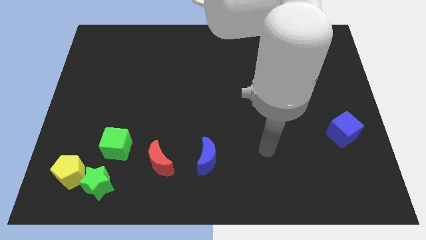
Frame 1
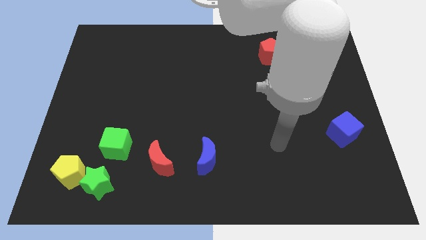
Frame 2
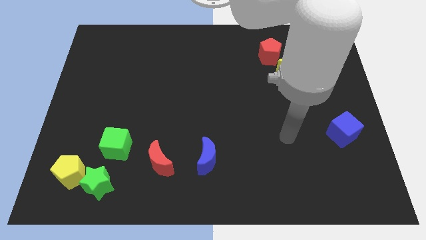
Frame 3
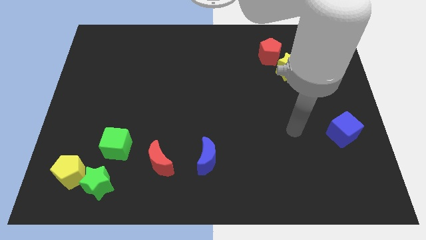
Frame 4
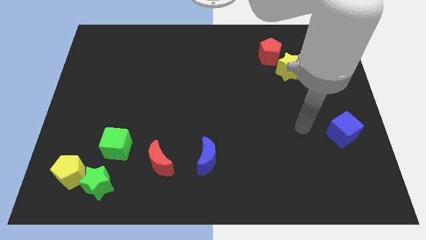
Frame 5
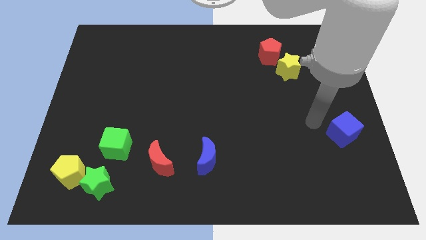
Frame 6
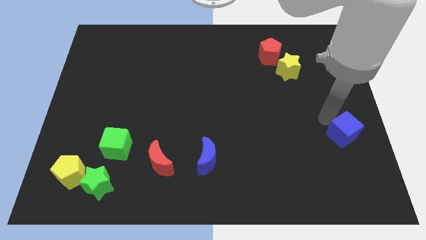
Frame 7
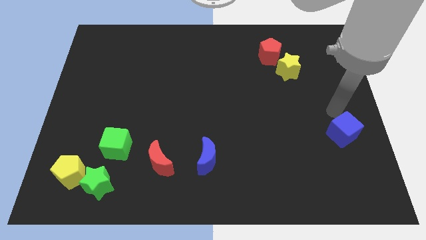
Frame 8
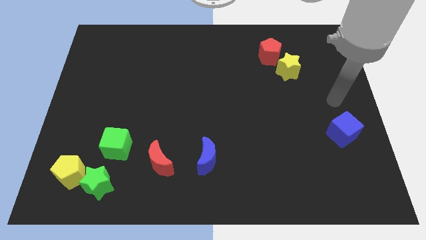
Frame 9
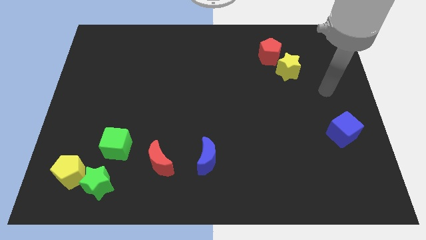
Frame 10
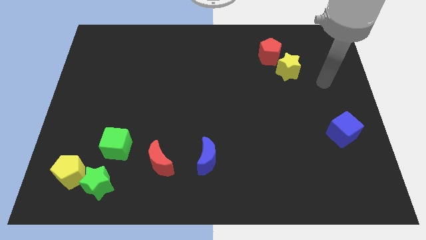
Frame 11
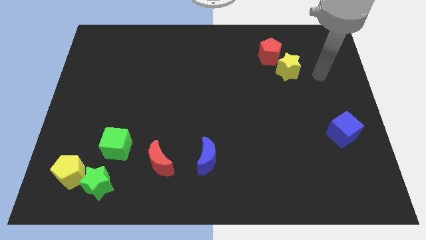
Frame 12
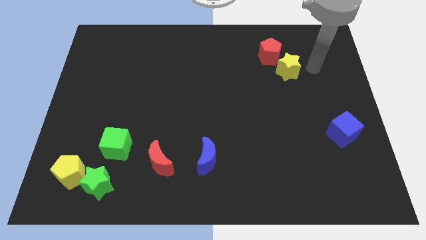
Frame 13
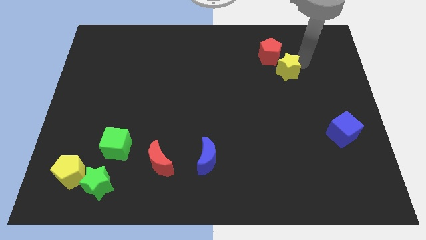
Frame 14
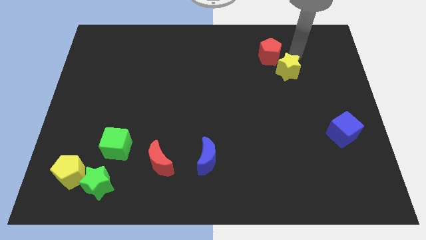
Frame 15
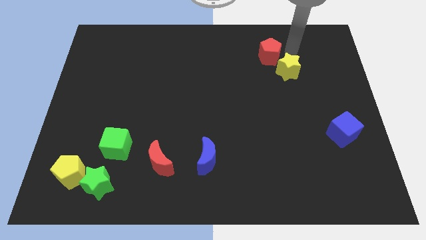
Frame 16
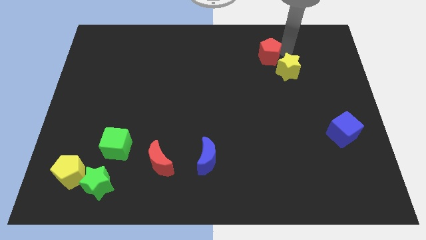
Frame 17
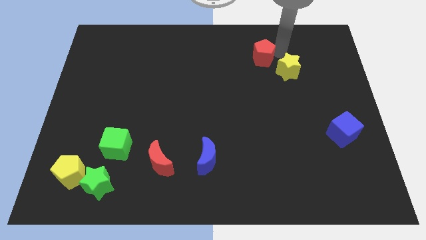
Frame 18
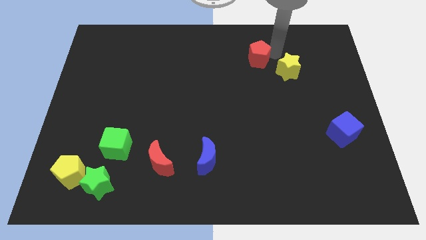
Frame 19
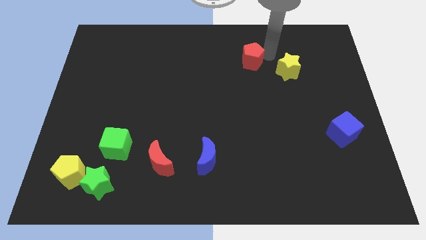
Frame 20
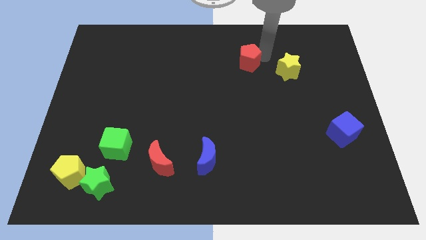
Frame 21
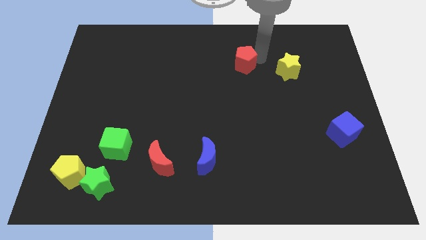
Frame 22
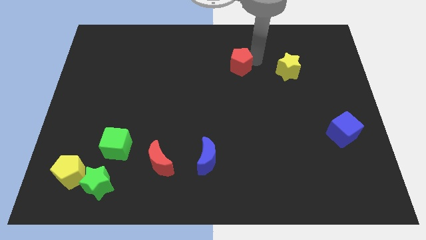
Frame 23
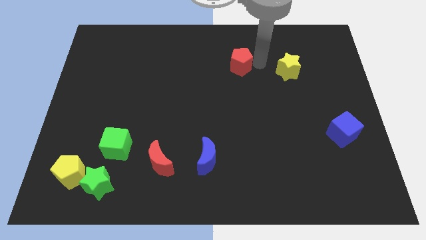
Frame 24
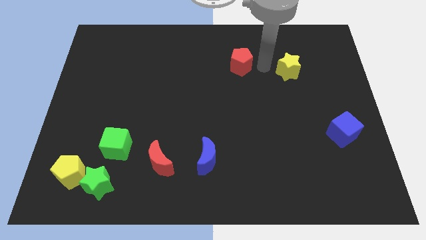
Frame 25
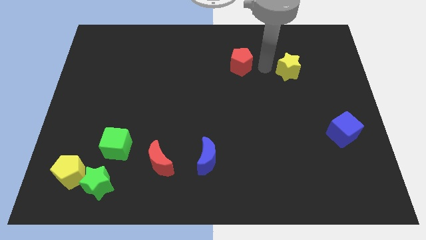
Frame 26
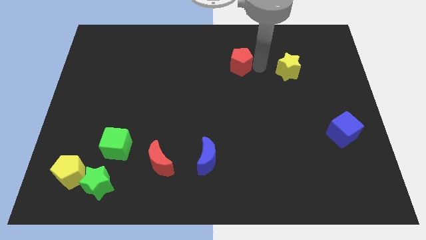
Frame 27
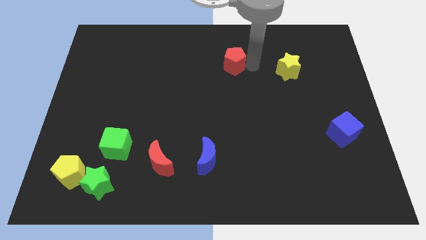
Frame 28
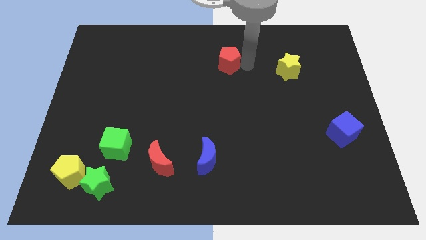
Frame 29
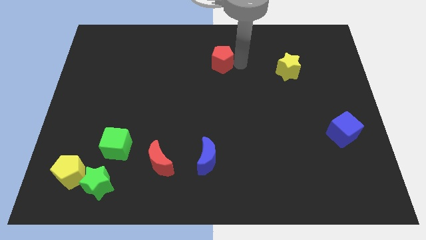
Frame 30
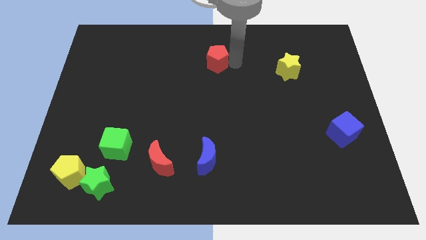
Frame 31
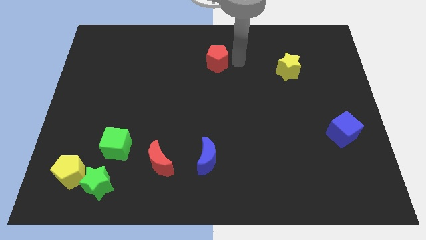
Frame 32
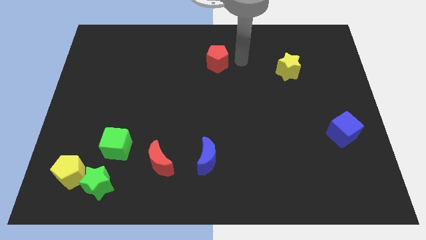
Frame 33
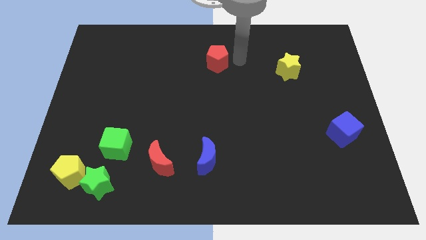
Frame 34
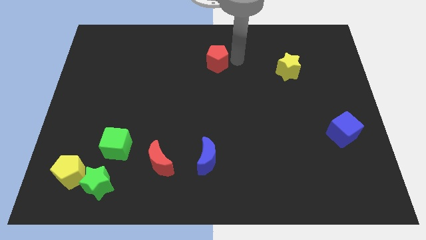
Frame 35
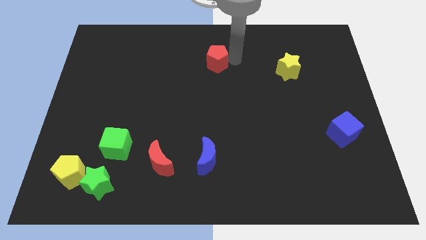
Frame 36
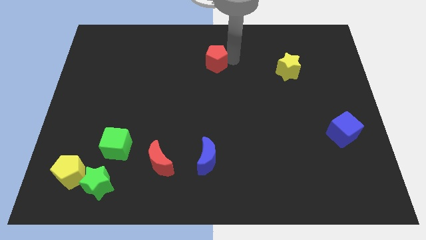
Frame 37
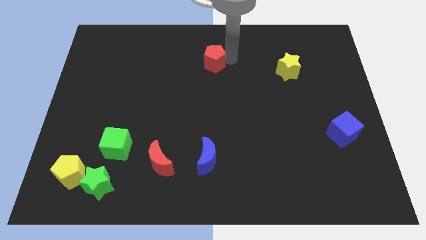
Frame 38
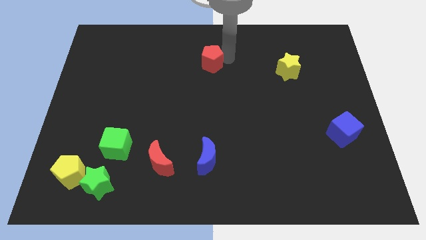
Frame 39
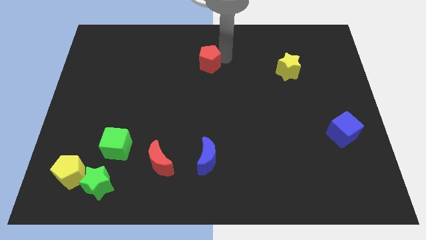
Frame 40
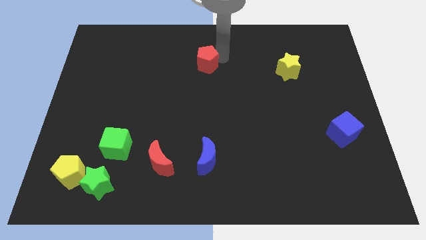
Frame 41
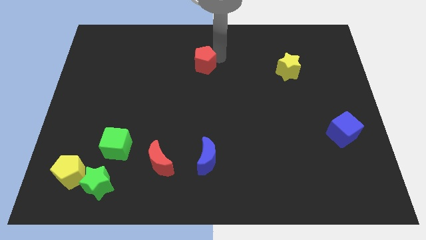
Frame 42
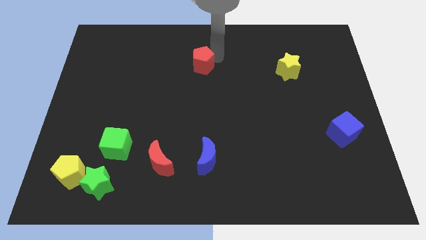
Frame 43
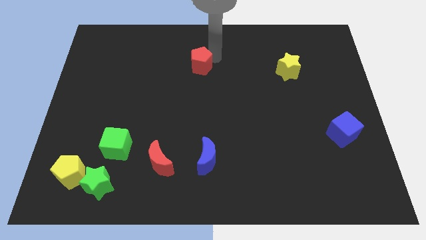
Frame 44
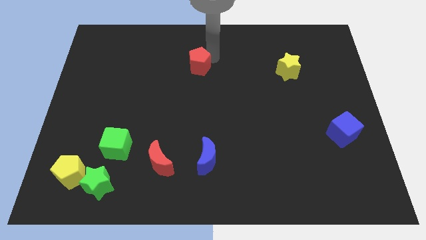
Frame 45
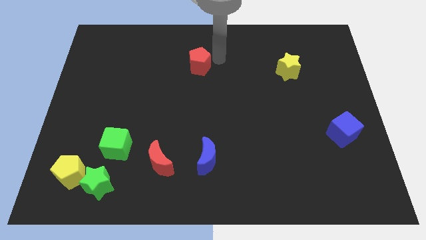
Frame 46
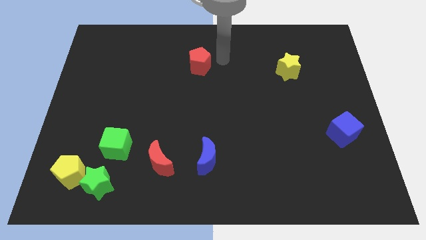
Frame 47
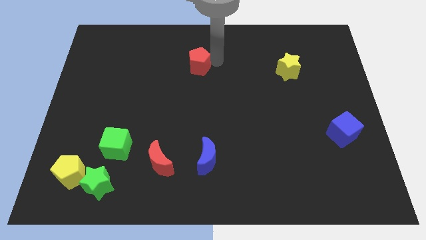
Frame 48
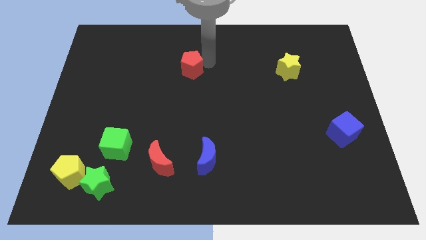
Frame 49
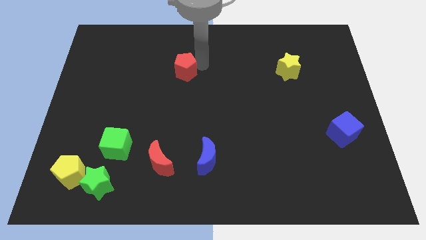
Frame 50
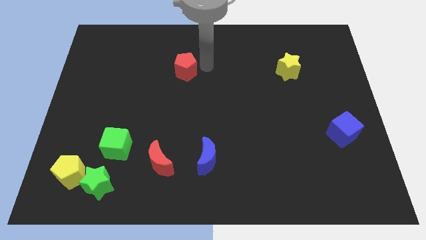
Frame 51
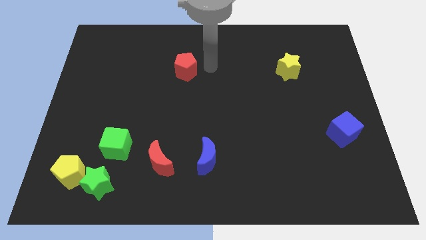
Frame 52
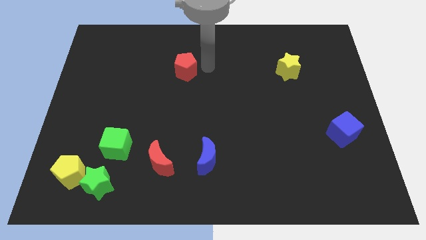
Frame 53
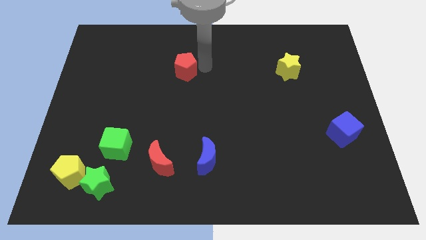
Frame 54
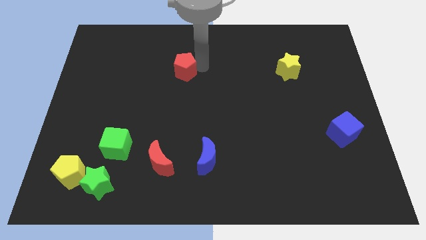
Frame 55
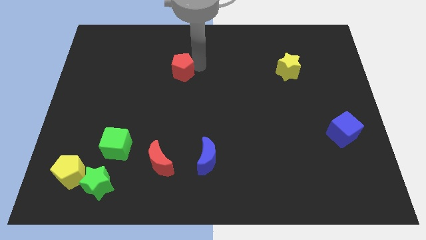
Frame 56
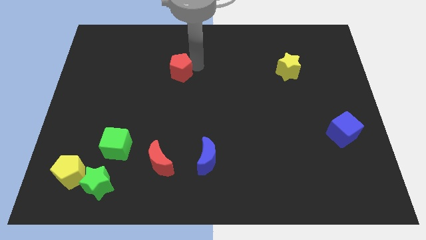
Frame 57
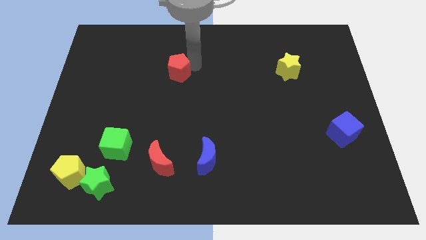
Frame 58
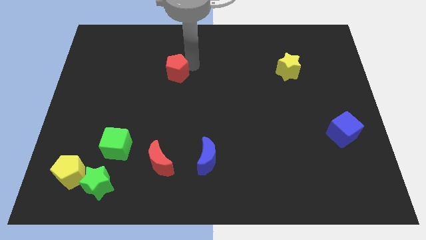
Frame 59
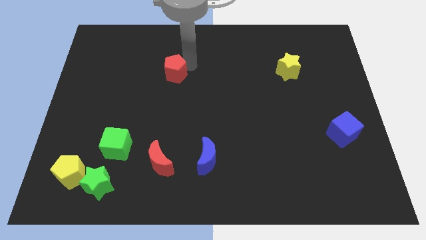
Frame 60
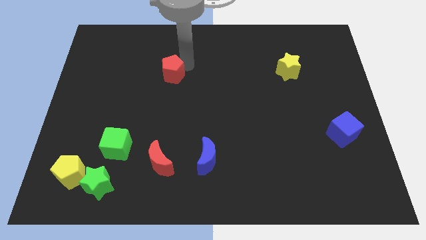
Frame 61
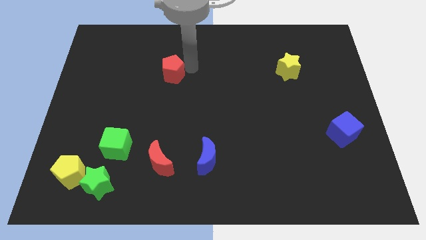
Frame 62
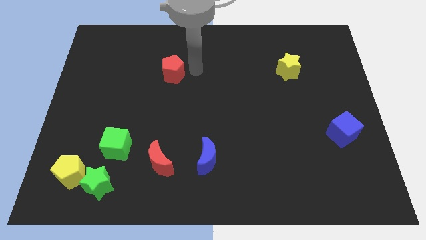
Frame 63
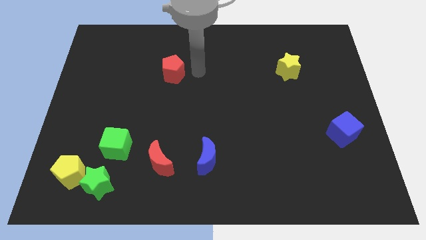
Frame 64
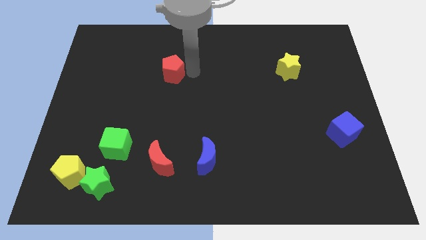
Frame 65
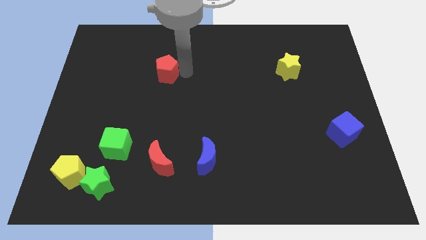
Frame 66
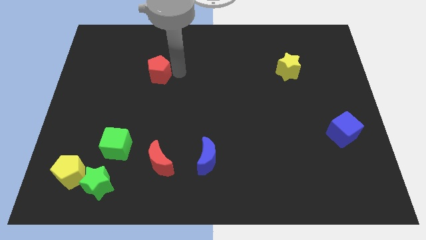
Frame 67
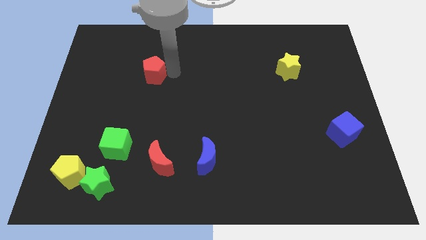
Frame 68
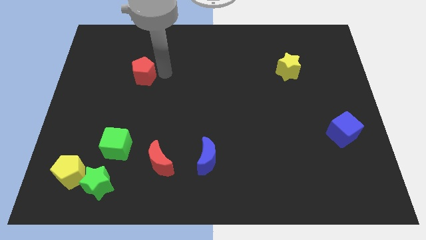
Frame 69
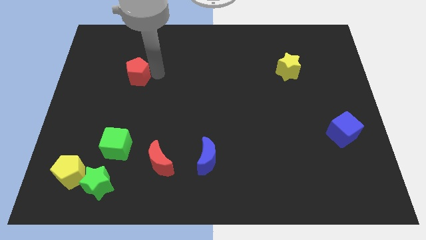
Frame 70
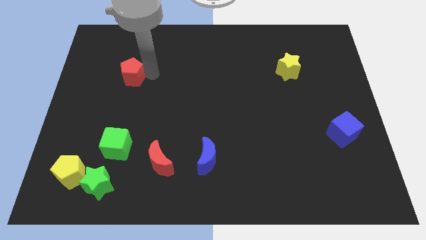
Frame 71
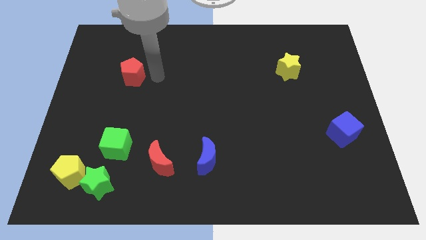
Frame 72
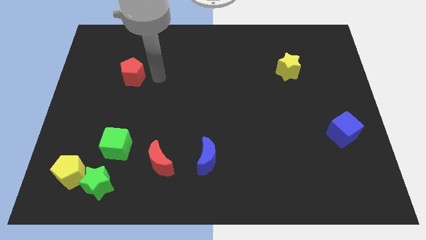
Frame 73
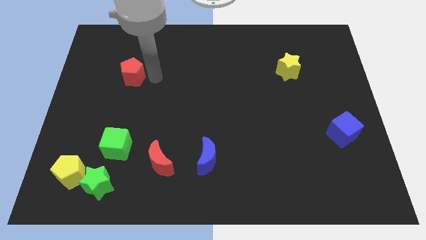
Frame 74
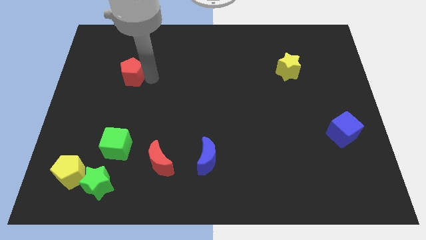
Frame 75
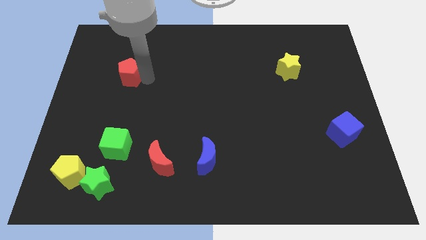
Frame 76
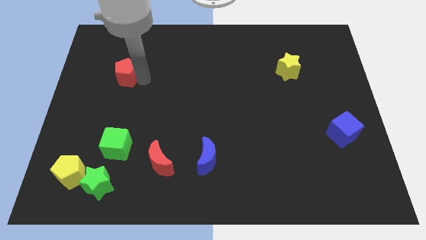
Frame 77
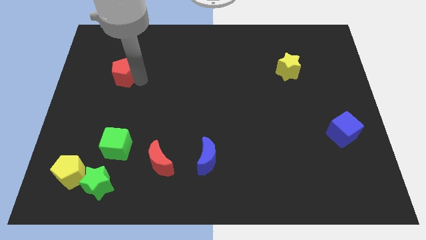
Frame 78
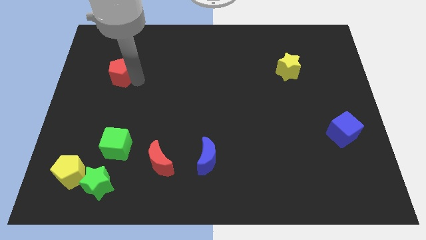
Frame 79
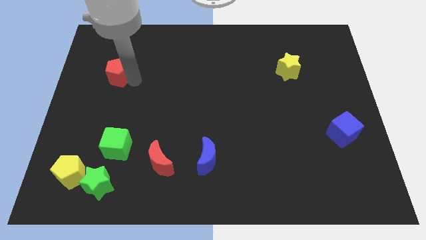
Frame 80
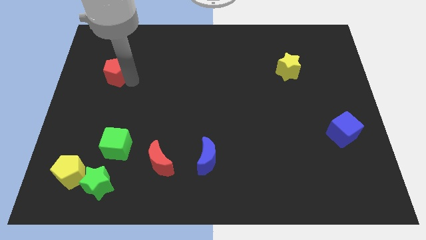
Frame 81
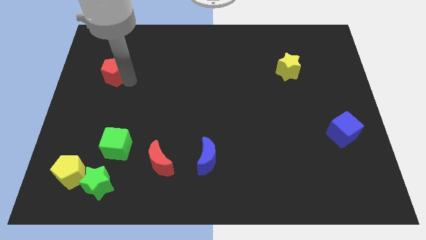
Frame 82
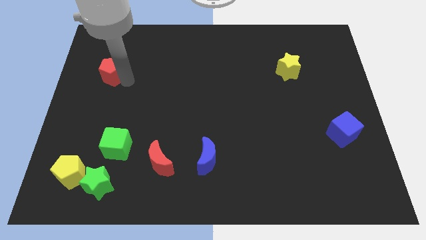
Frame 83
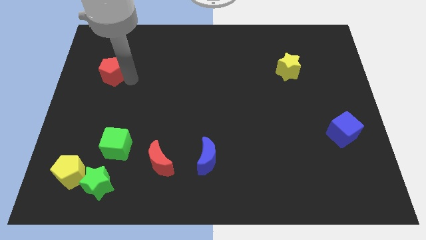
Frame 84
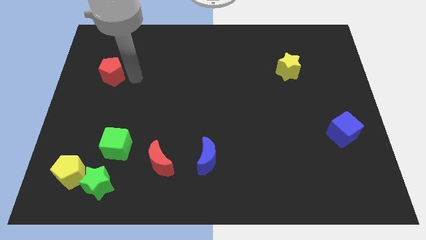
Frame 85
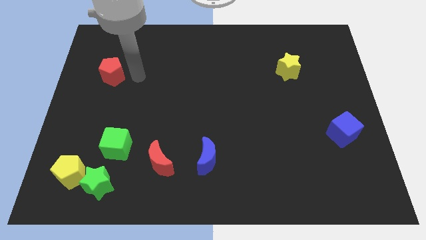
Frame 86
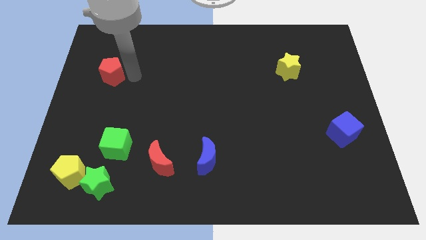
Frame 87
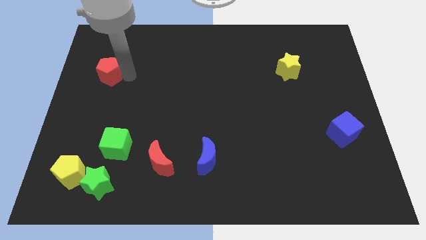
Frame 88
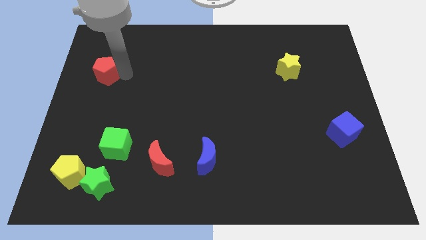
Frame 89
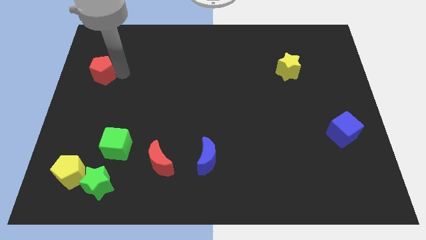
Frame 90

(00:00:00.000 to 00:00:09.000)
slide the red pentagon to the center left
